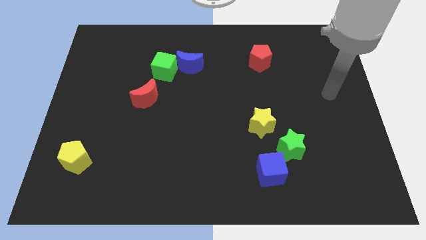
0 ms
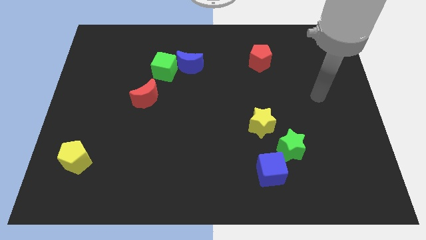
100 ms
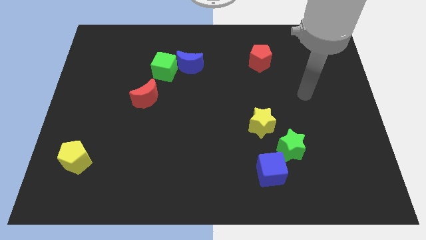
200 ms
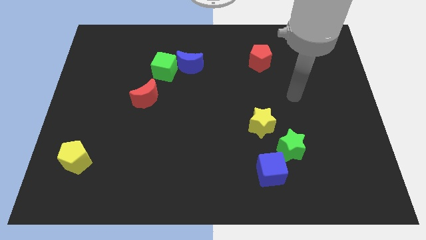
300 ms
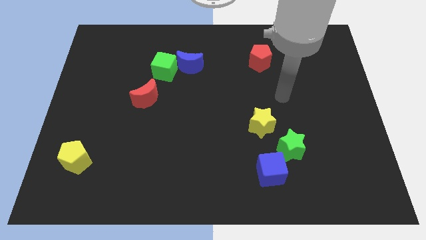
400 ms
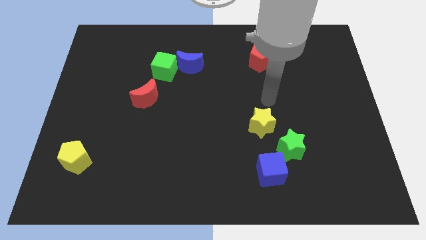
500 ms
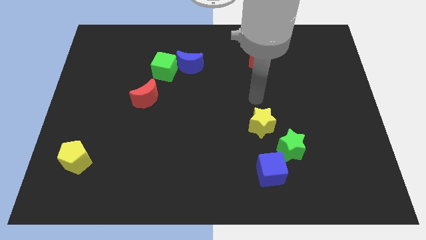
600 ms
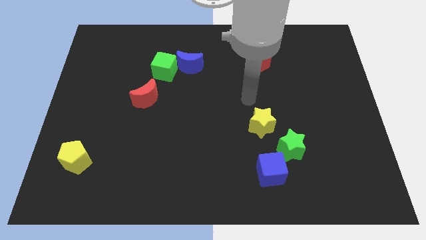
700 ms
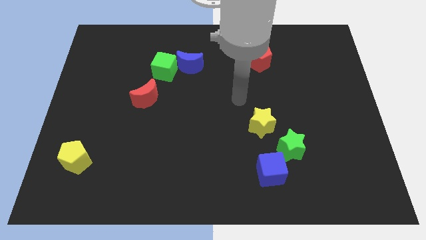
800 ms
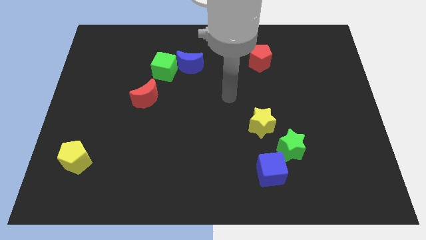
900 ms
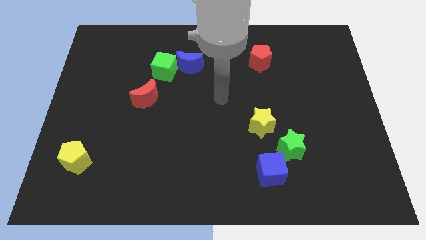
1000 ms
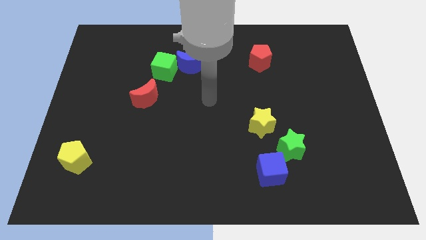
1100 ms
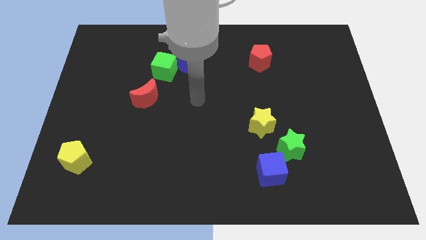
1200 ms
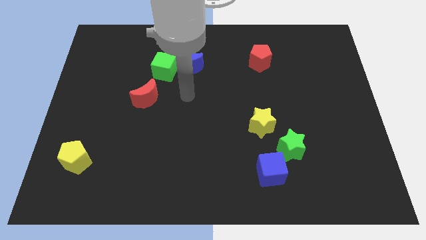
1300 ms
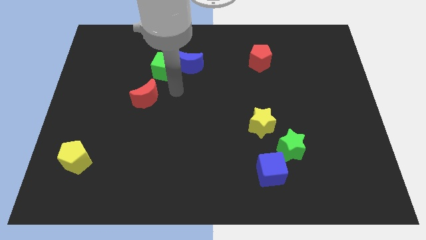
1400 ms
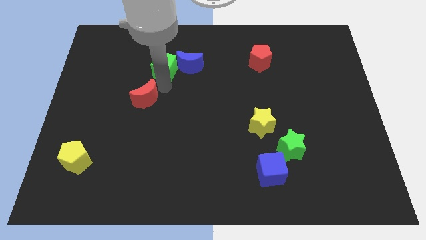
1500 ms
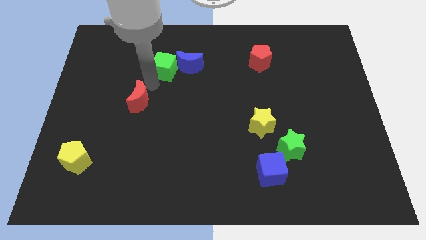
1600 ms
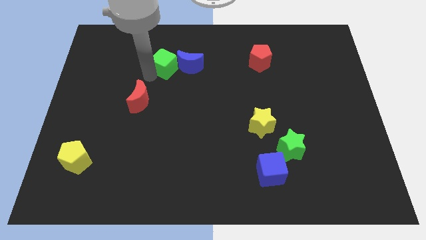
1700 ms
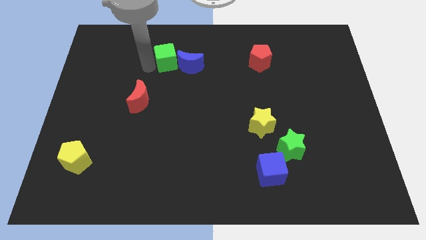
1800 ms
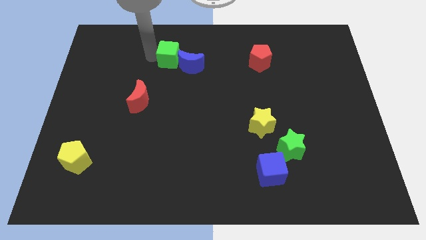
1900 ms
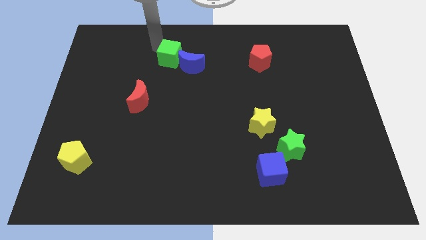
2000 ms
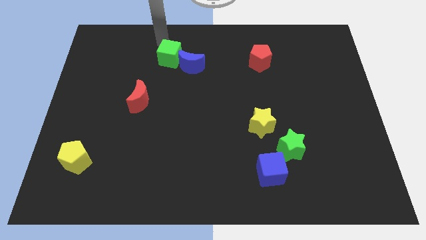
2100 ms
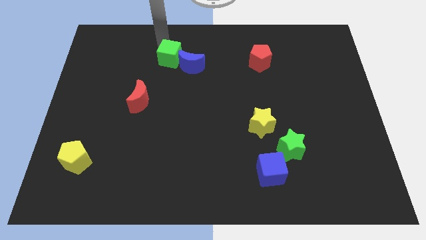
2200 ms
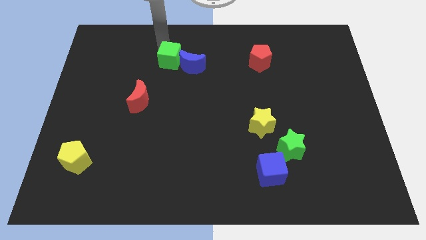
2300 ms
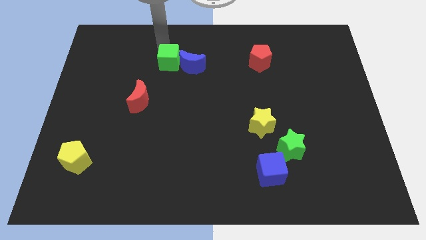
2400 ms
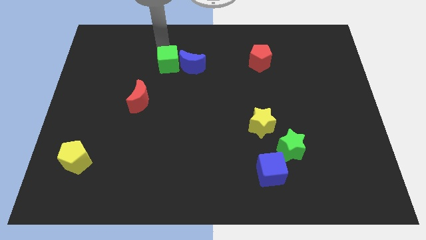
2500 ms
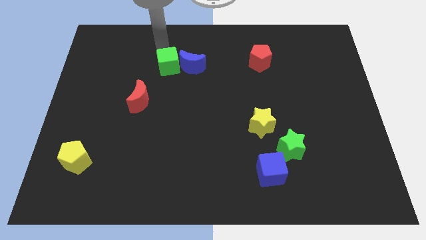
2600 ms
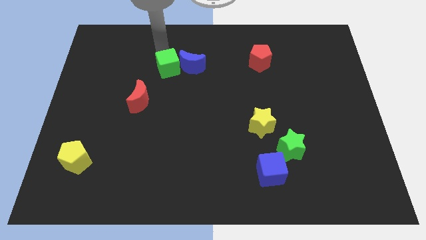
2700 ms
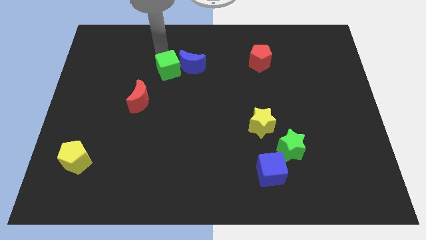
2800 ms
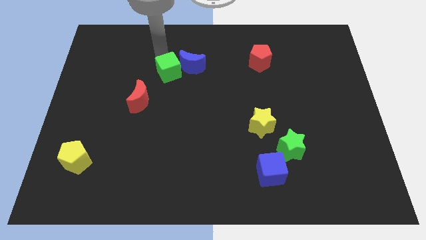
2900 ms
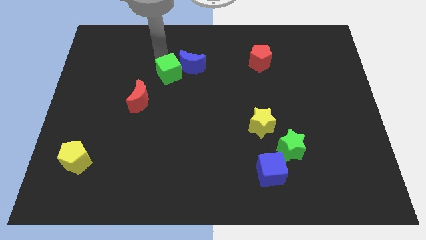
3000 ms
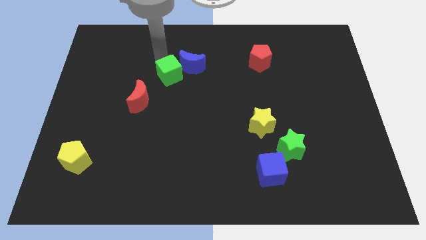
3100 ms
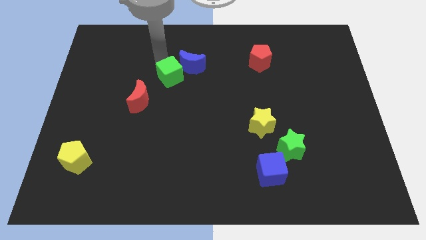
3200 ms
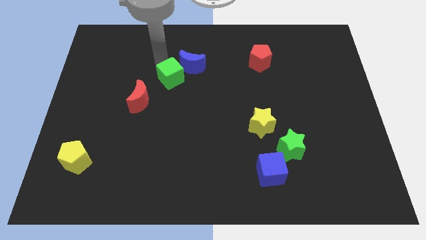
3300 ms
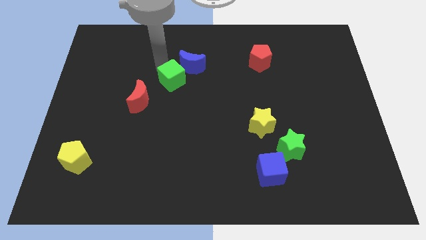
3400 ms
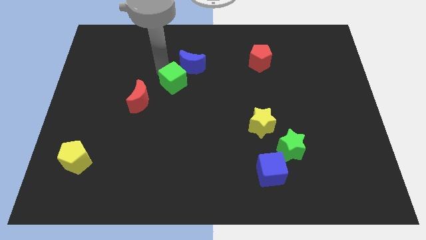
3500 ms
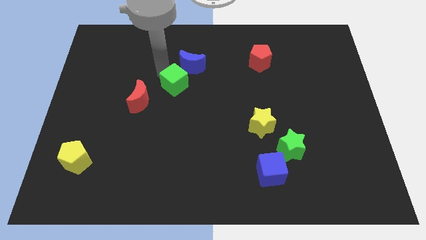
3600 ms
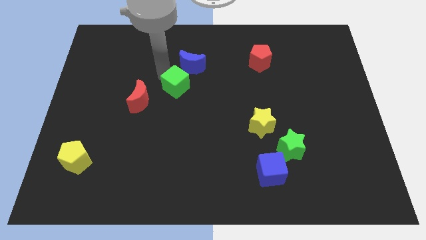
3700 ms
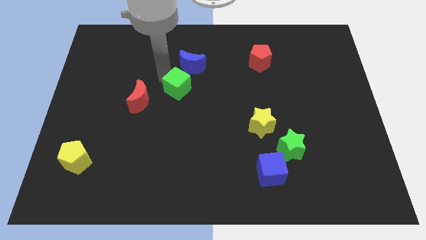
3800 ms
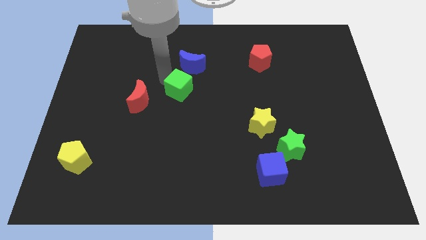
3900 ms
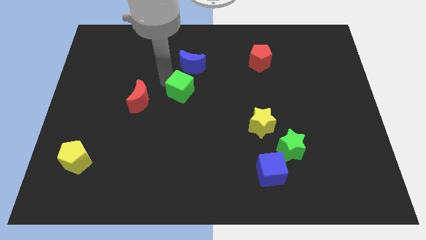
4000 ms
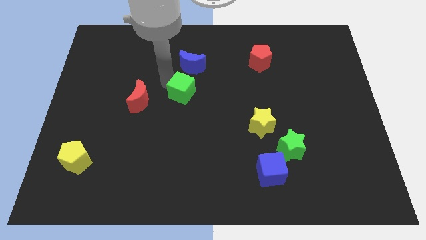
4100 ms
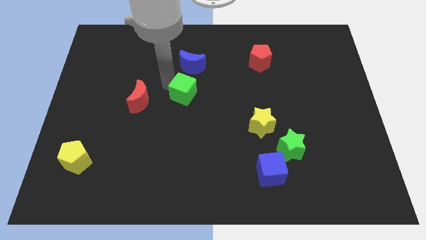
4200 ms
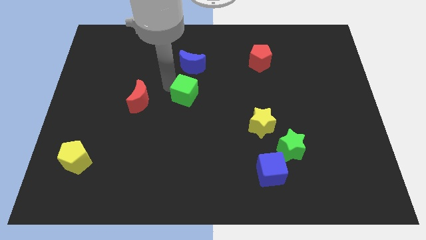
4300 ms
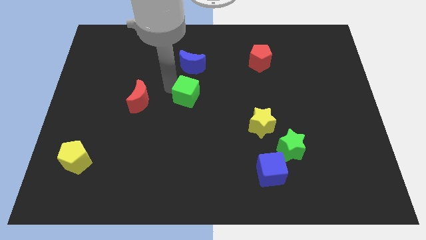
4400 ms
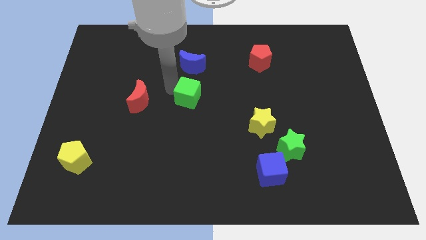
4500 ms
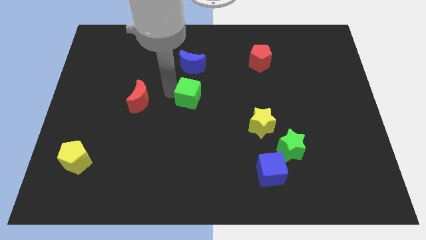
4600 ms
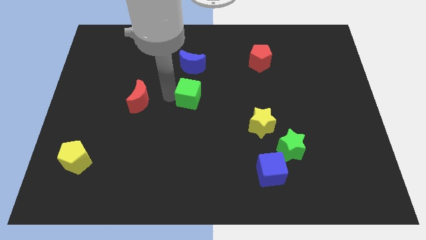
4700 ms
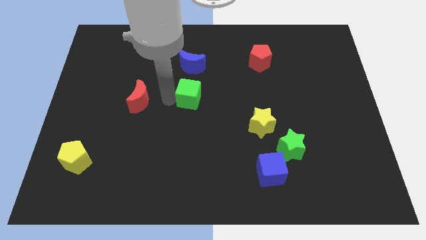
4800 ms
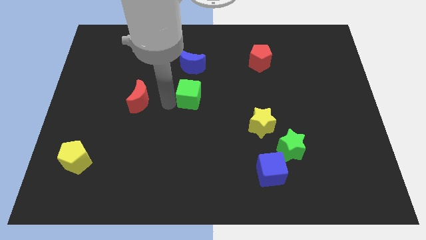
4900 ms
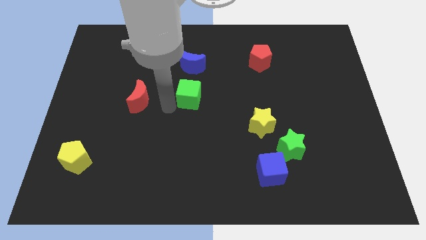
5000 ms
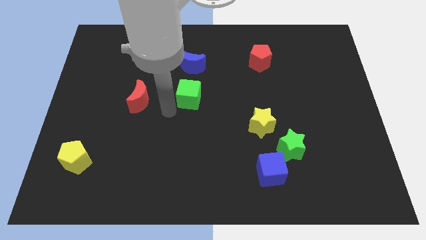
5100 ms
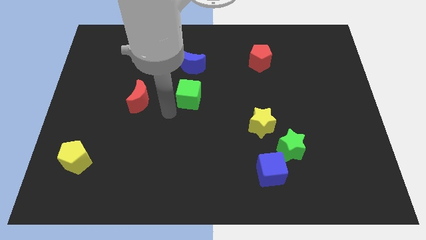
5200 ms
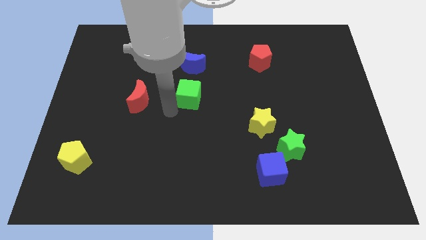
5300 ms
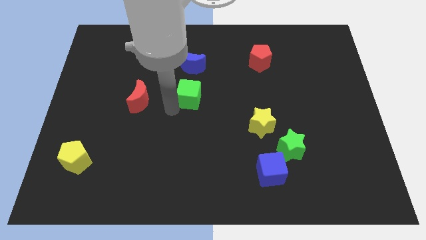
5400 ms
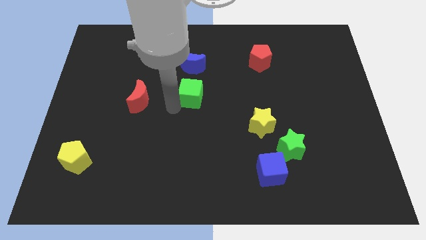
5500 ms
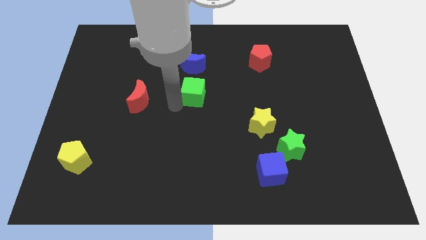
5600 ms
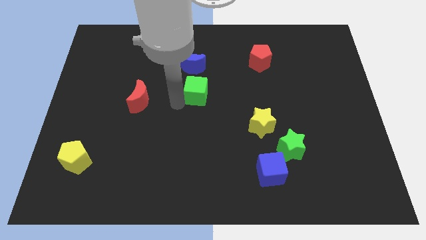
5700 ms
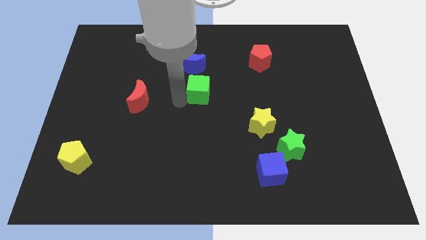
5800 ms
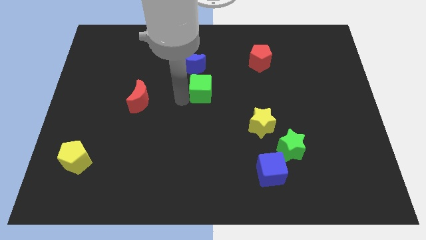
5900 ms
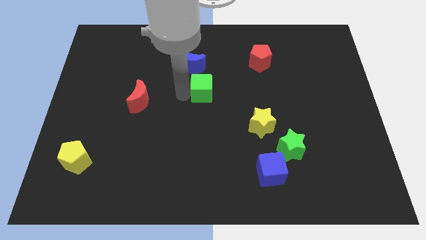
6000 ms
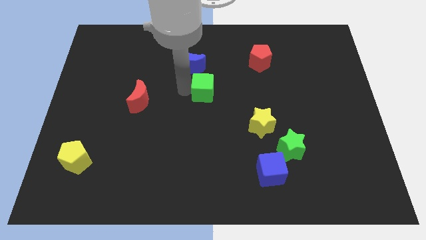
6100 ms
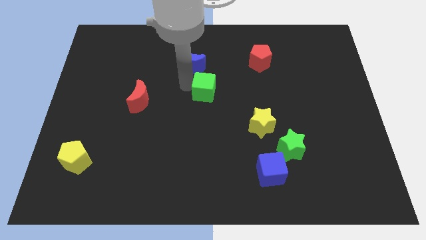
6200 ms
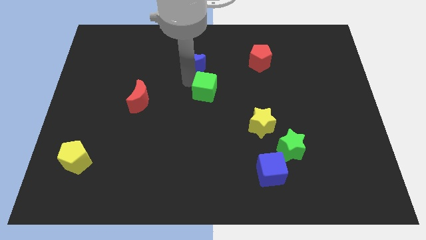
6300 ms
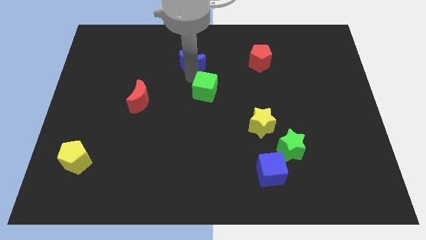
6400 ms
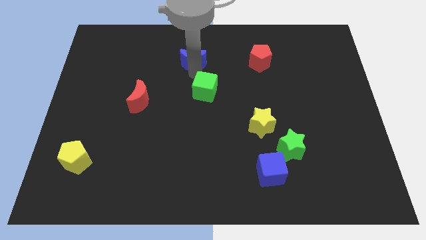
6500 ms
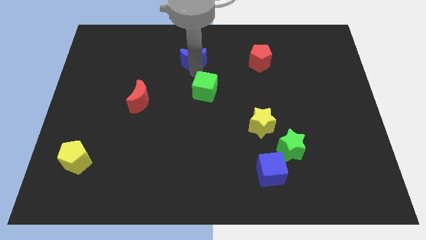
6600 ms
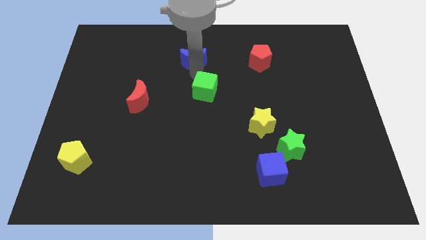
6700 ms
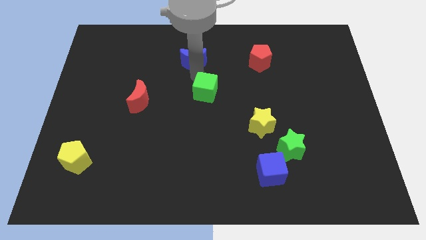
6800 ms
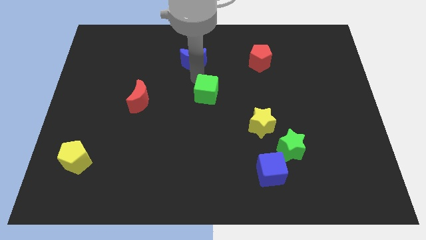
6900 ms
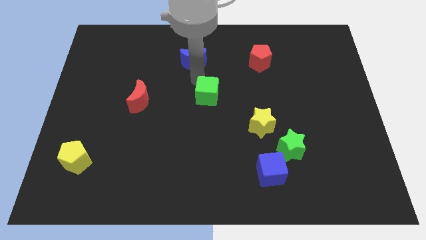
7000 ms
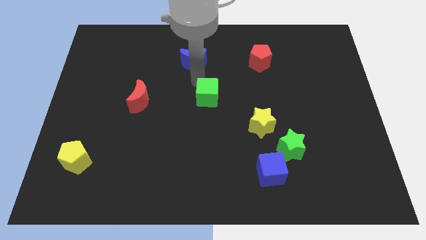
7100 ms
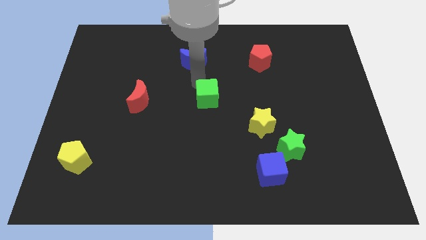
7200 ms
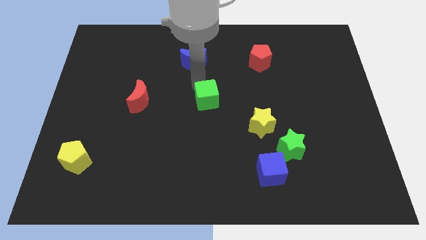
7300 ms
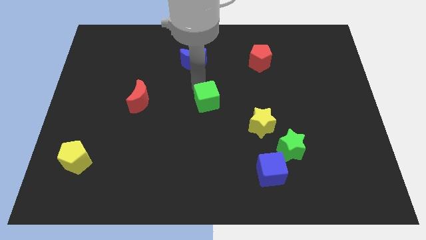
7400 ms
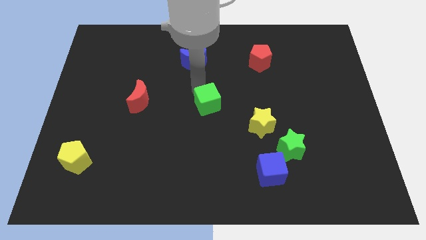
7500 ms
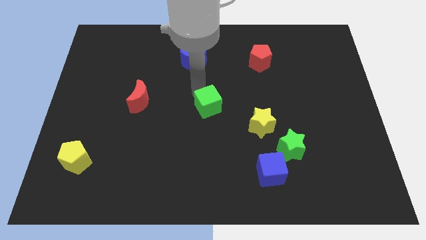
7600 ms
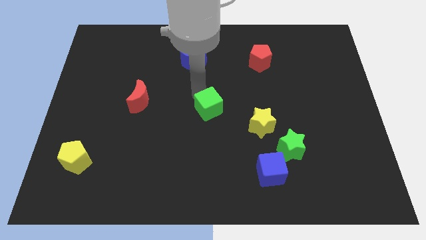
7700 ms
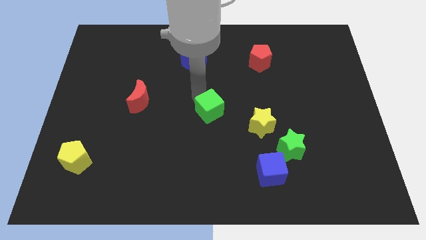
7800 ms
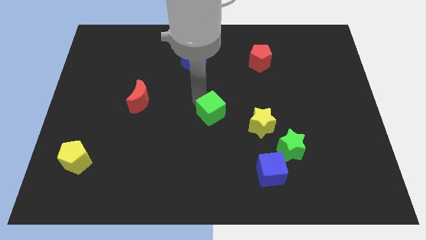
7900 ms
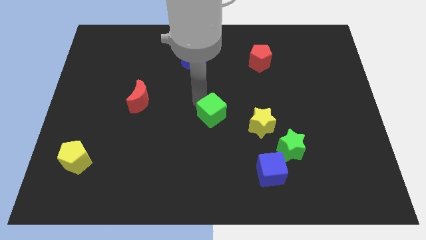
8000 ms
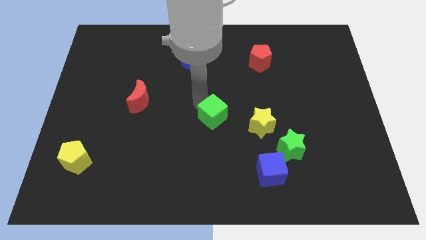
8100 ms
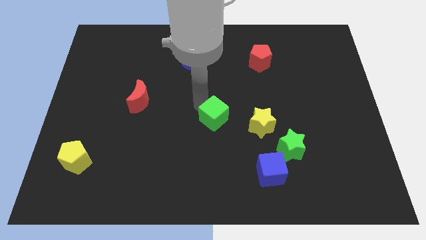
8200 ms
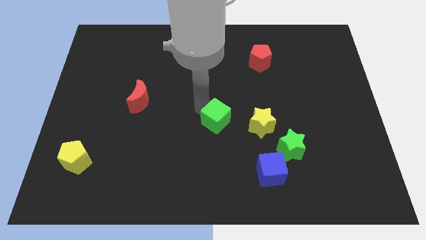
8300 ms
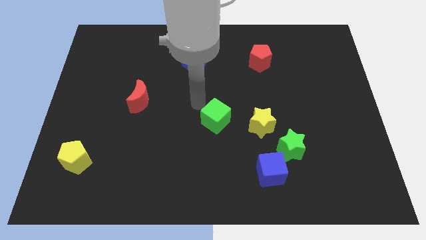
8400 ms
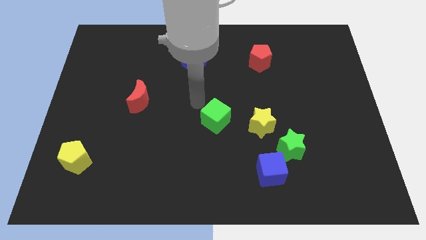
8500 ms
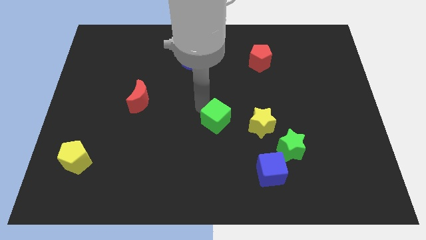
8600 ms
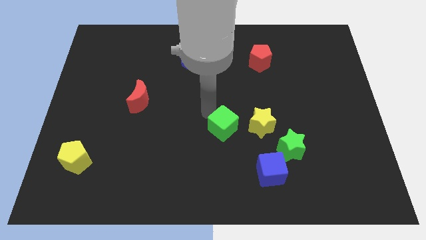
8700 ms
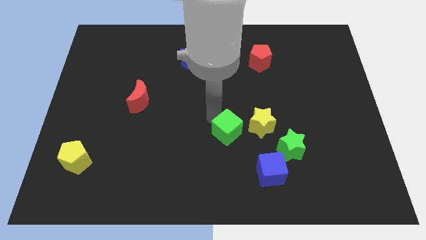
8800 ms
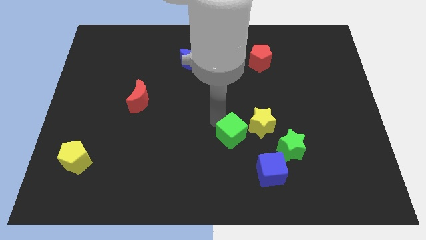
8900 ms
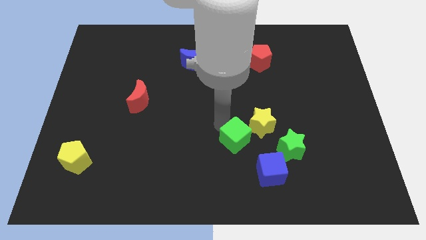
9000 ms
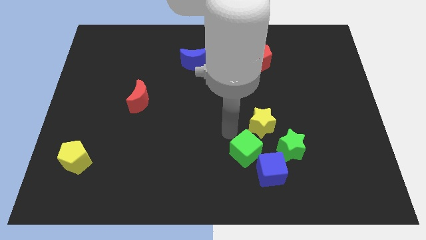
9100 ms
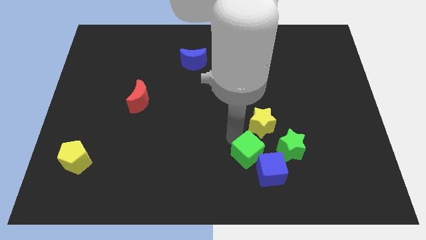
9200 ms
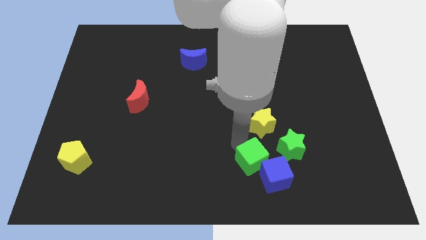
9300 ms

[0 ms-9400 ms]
slide the green cube towards the blue cube
